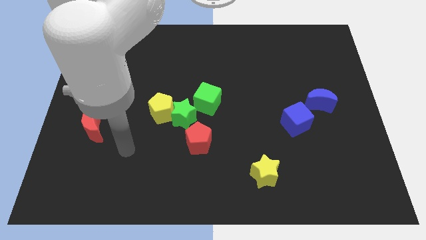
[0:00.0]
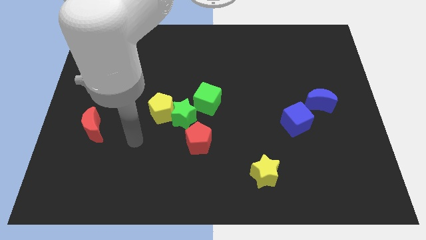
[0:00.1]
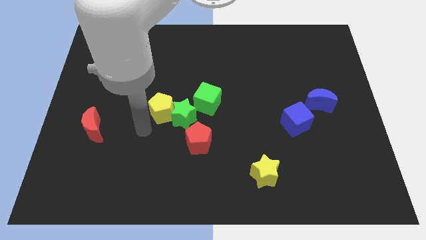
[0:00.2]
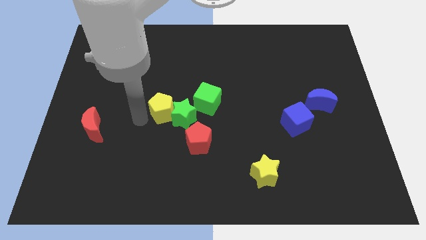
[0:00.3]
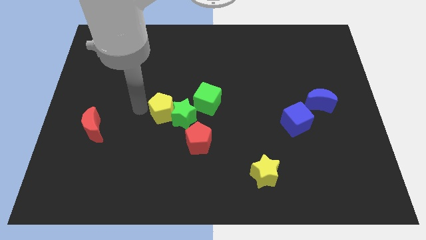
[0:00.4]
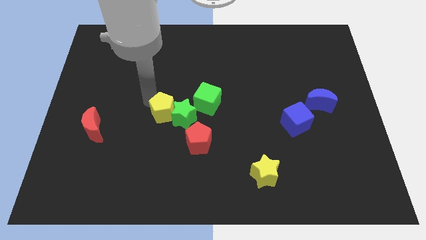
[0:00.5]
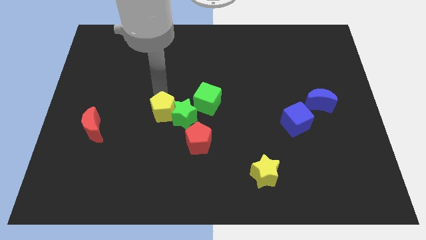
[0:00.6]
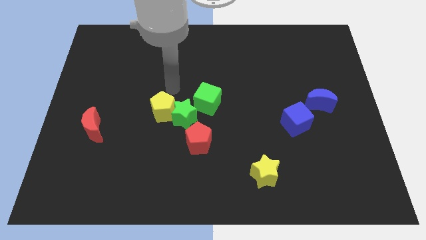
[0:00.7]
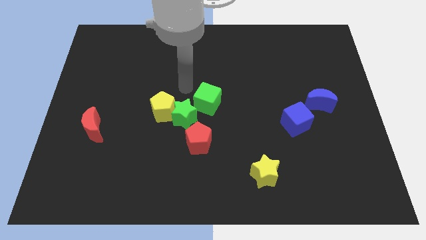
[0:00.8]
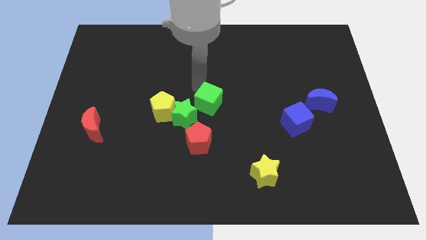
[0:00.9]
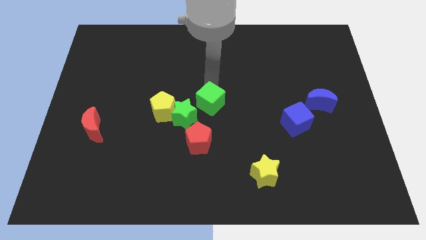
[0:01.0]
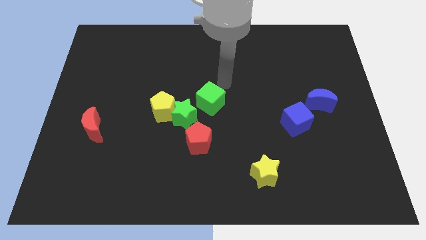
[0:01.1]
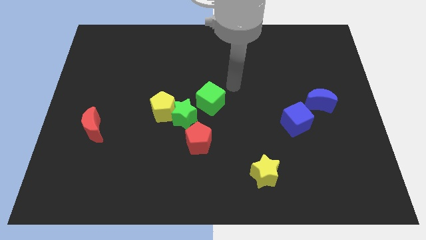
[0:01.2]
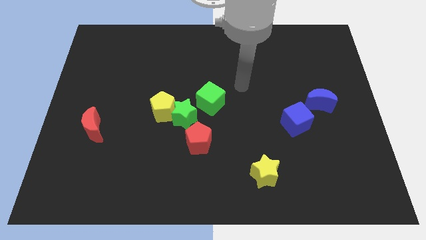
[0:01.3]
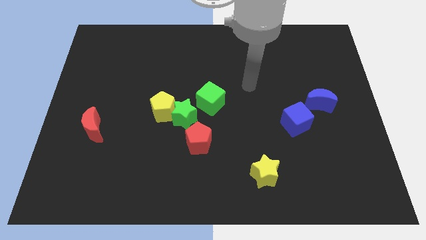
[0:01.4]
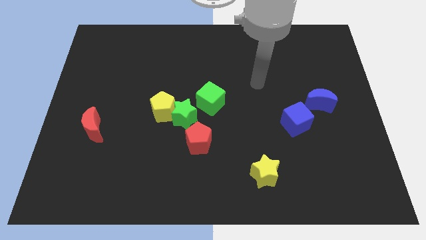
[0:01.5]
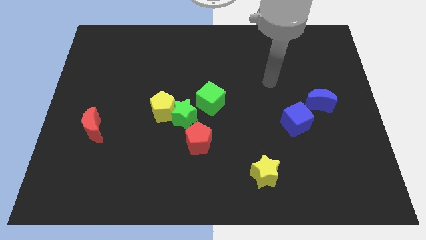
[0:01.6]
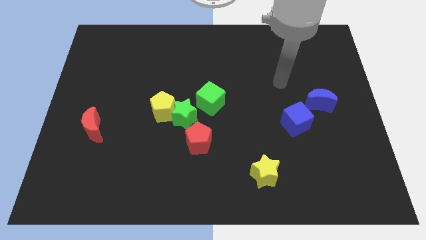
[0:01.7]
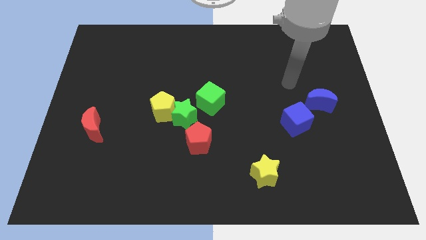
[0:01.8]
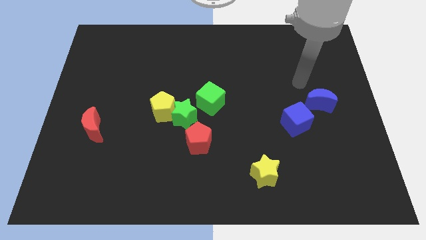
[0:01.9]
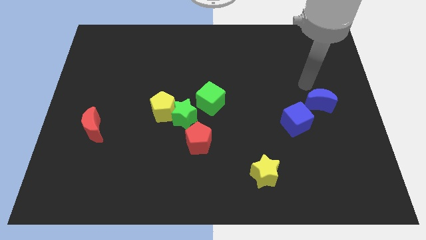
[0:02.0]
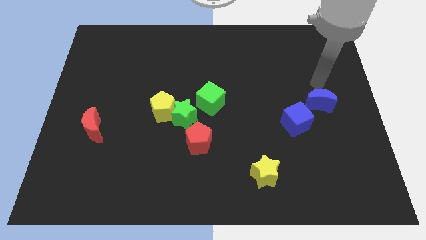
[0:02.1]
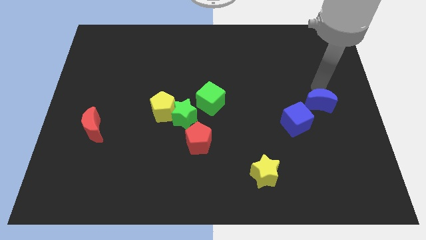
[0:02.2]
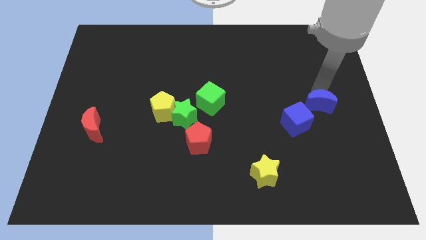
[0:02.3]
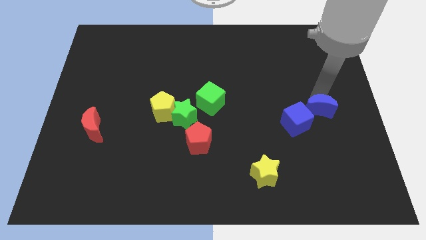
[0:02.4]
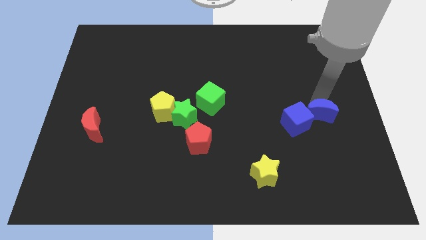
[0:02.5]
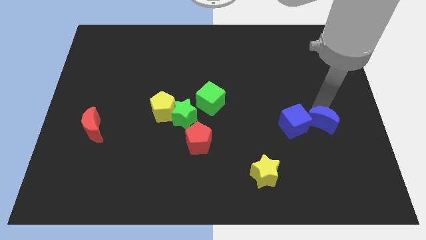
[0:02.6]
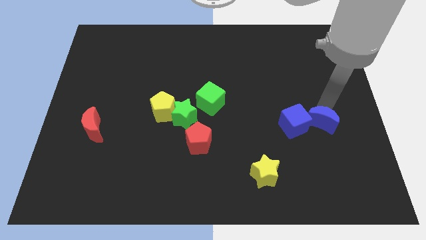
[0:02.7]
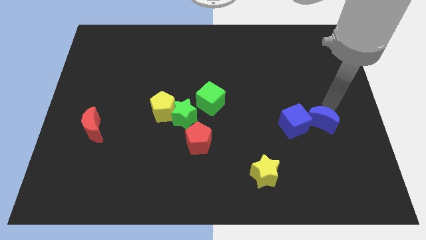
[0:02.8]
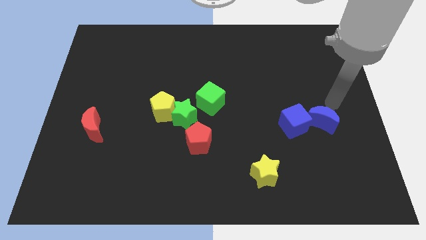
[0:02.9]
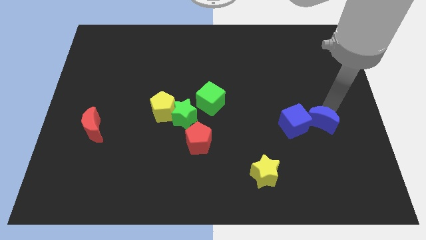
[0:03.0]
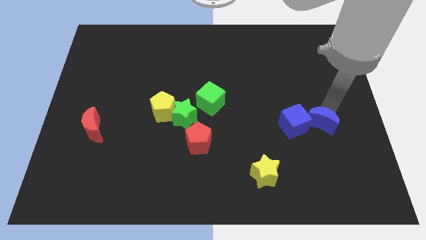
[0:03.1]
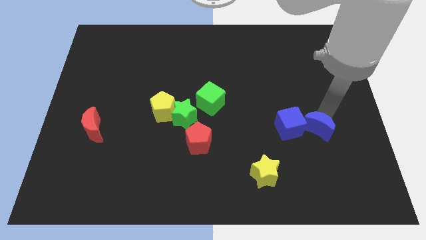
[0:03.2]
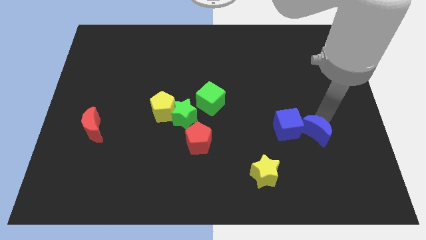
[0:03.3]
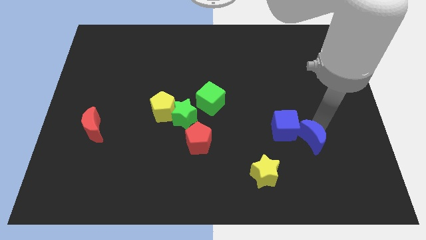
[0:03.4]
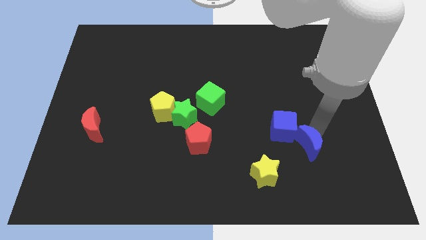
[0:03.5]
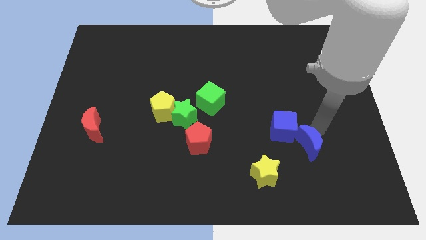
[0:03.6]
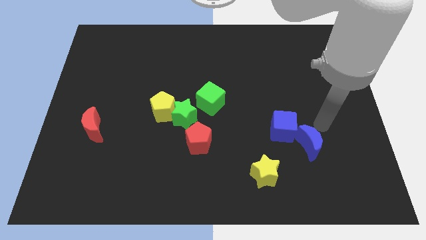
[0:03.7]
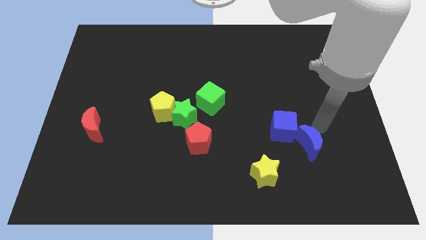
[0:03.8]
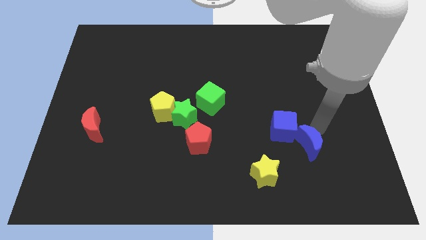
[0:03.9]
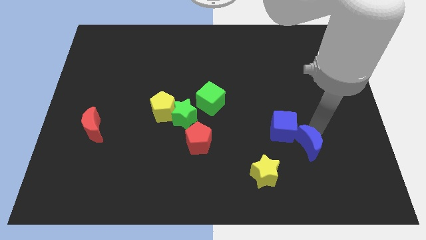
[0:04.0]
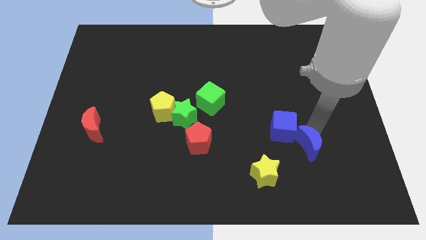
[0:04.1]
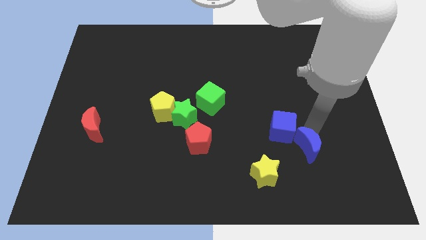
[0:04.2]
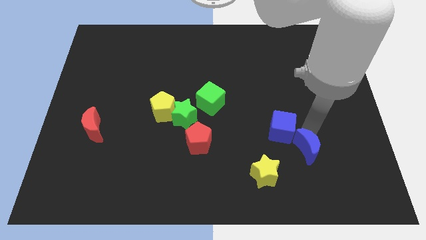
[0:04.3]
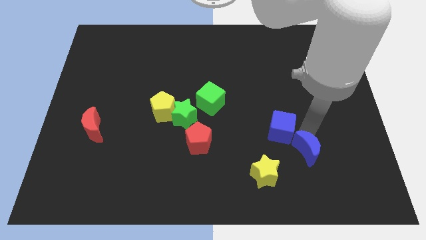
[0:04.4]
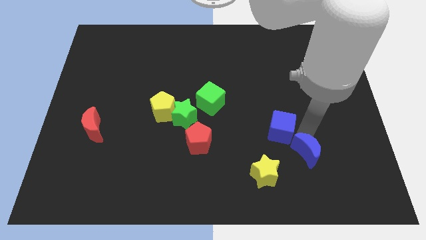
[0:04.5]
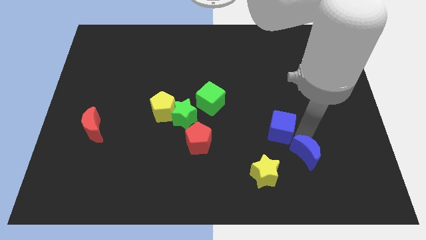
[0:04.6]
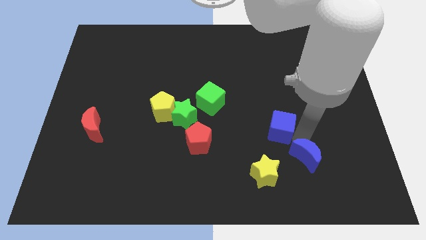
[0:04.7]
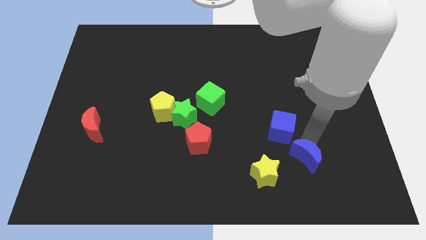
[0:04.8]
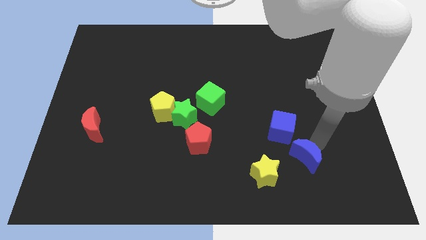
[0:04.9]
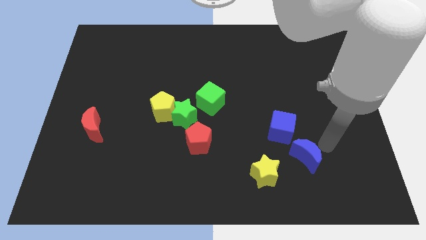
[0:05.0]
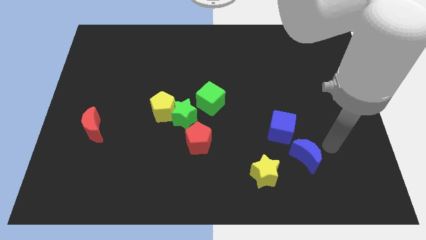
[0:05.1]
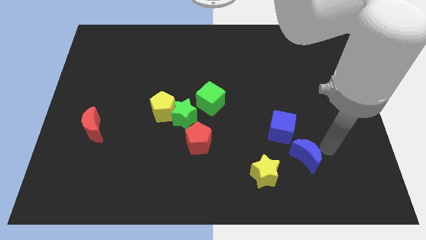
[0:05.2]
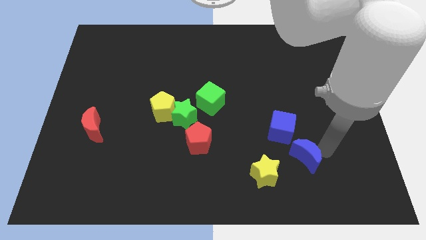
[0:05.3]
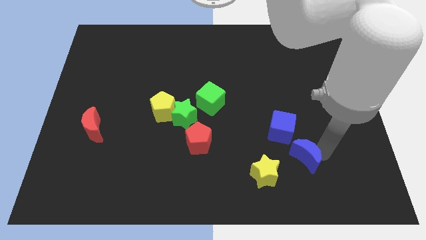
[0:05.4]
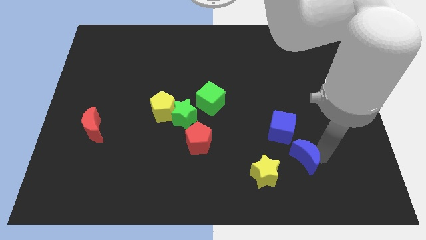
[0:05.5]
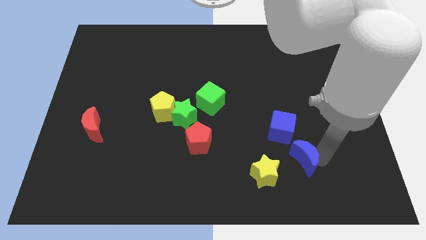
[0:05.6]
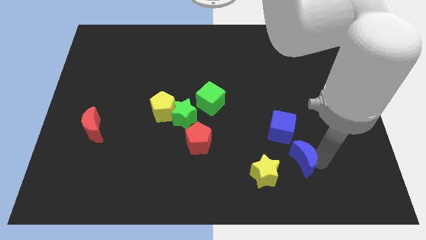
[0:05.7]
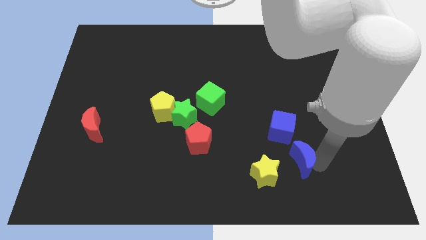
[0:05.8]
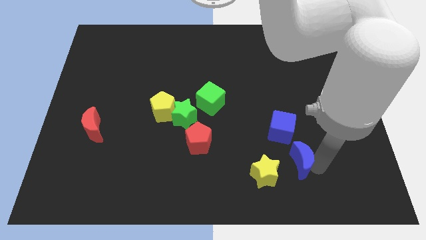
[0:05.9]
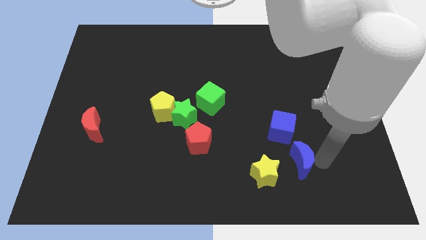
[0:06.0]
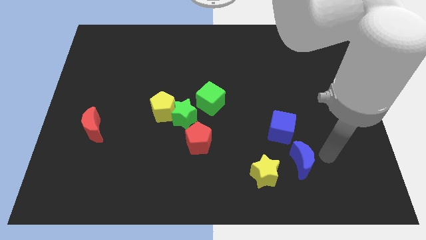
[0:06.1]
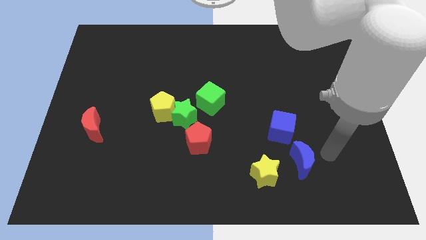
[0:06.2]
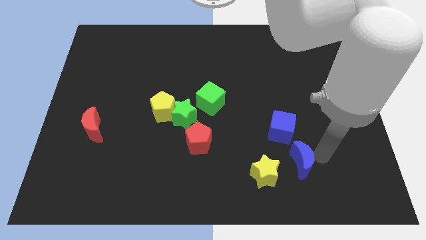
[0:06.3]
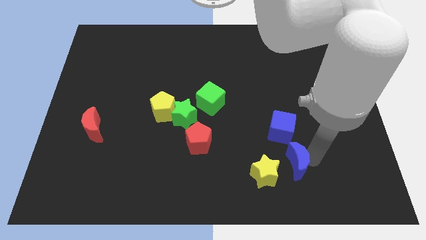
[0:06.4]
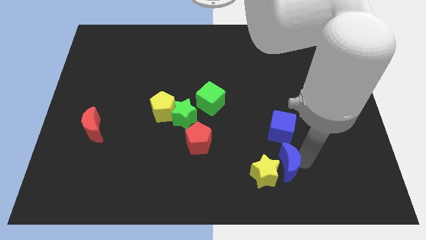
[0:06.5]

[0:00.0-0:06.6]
put the blue moon next to the yellow star
